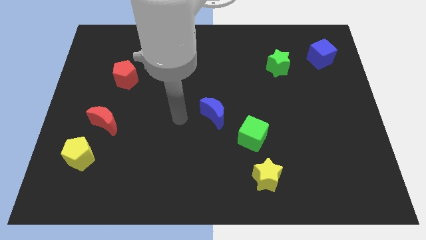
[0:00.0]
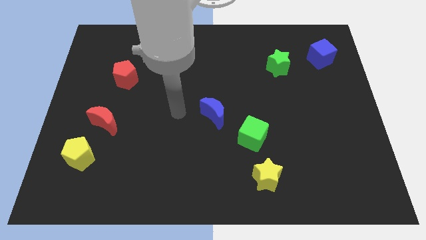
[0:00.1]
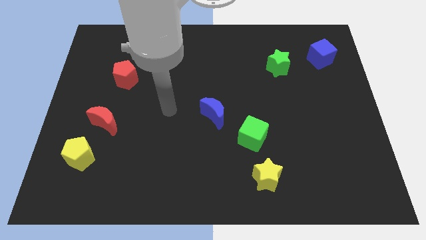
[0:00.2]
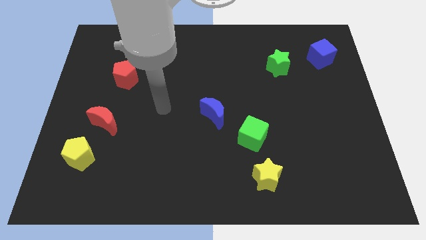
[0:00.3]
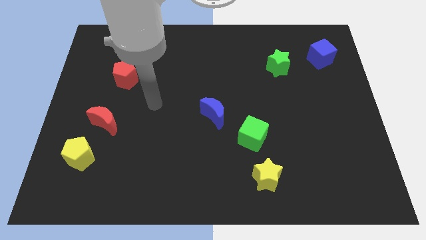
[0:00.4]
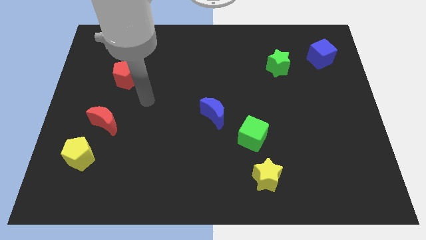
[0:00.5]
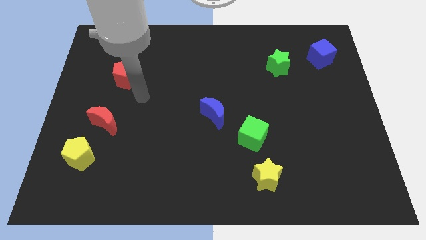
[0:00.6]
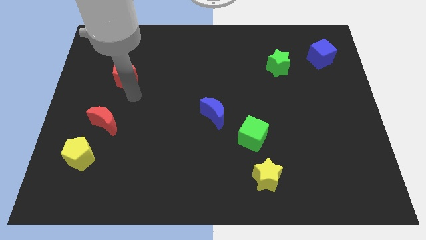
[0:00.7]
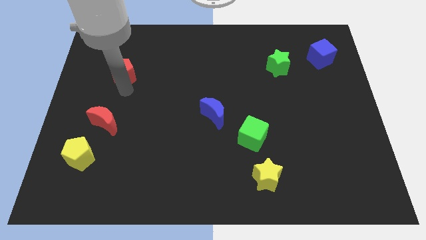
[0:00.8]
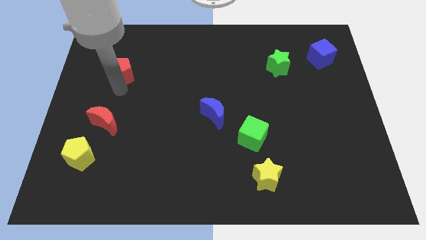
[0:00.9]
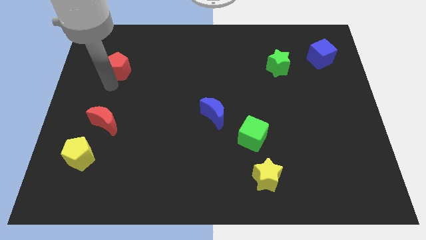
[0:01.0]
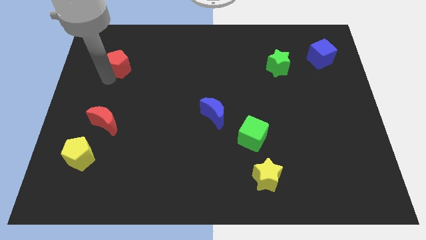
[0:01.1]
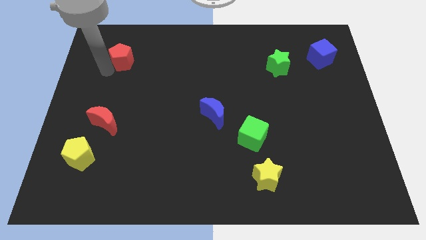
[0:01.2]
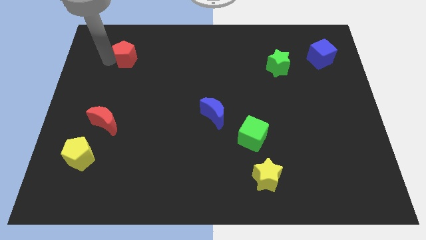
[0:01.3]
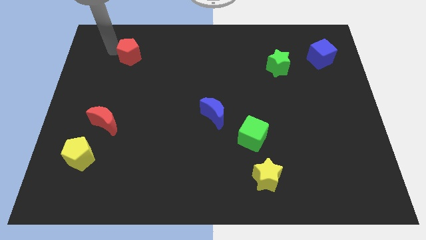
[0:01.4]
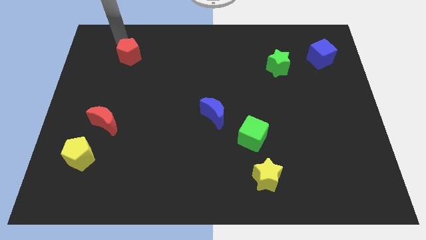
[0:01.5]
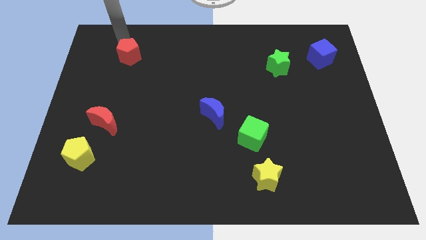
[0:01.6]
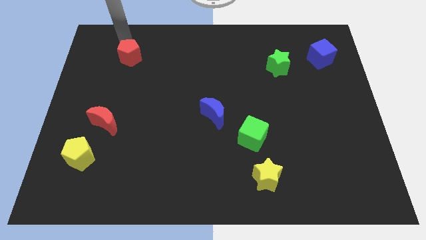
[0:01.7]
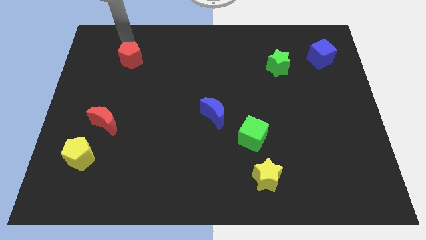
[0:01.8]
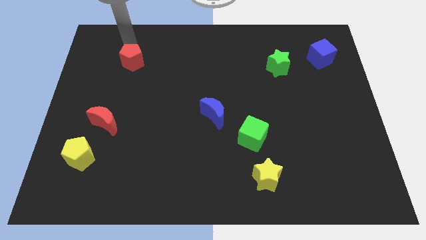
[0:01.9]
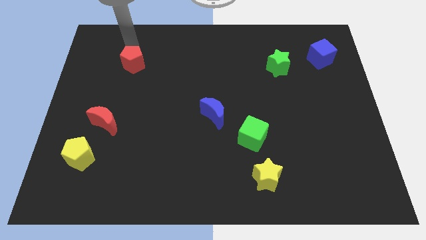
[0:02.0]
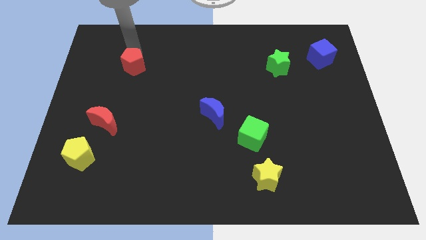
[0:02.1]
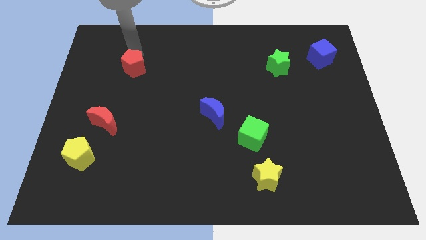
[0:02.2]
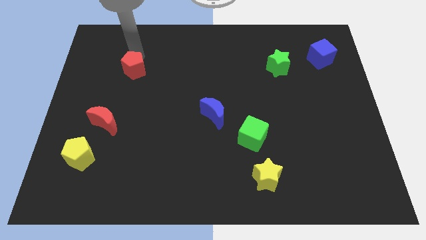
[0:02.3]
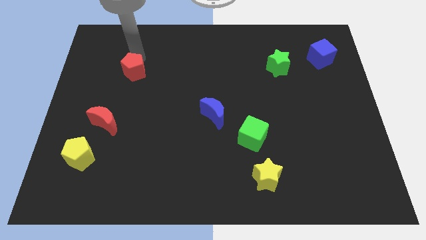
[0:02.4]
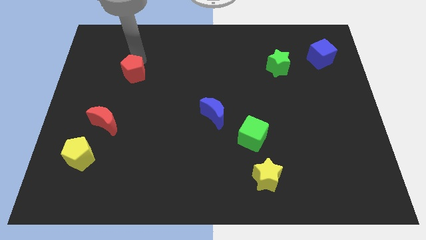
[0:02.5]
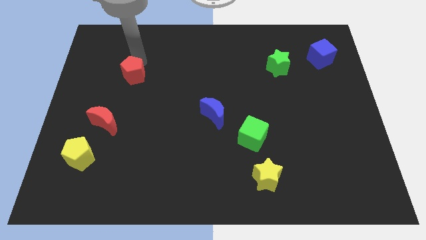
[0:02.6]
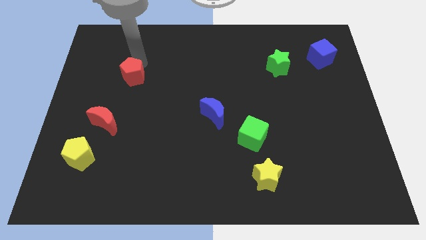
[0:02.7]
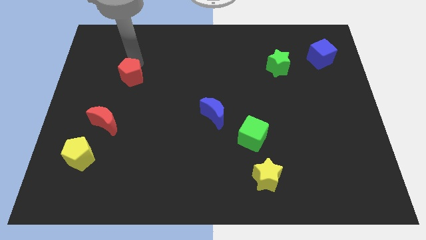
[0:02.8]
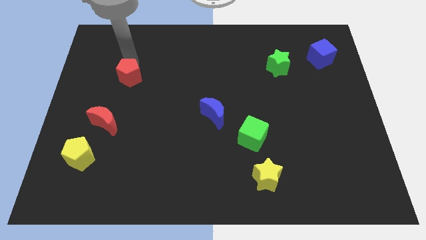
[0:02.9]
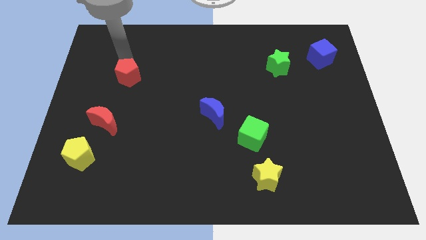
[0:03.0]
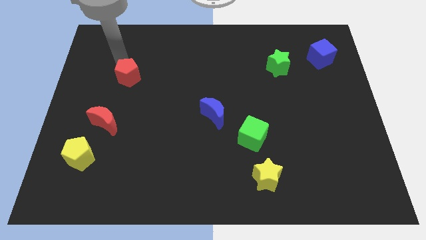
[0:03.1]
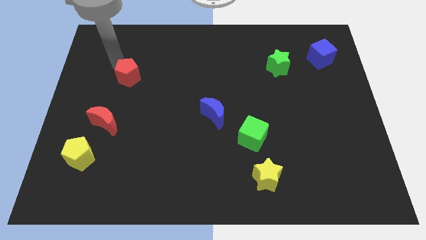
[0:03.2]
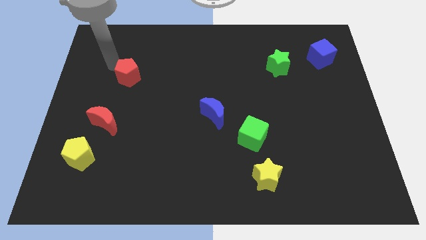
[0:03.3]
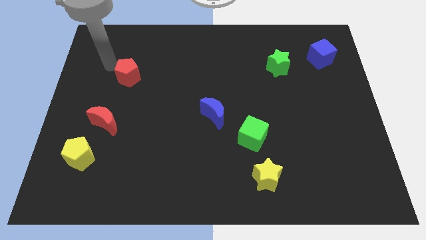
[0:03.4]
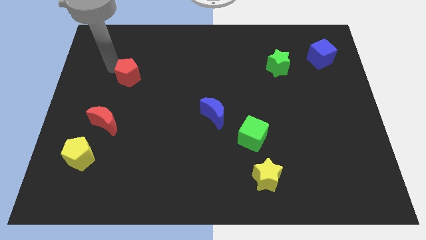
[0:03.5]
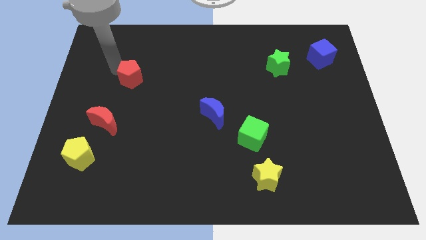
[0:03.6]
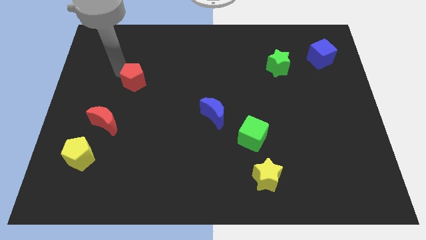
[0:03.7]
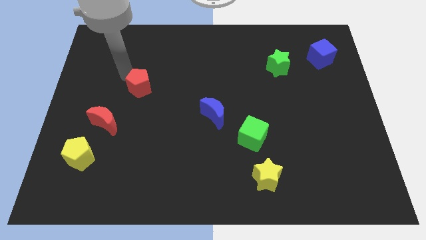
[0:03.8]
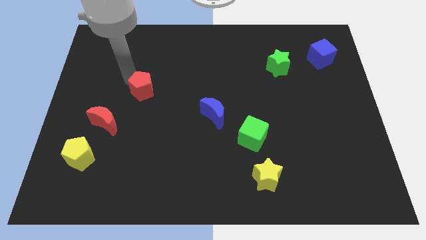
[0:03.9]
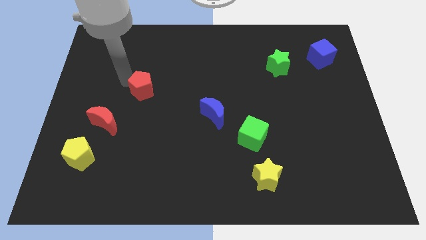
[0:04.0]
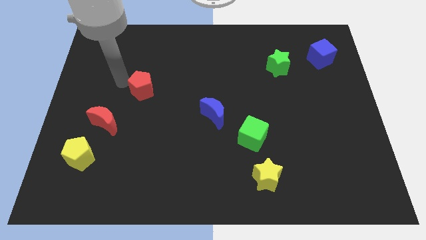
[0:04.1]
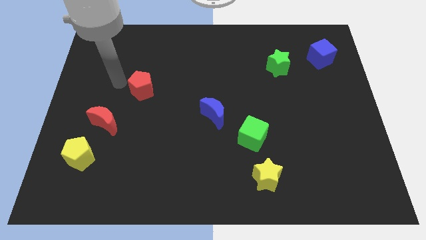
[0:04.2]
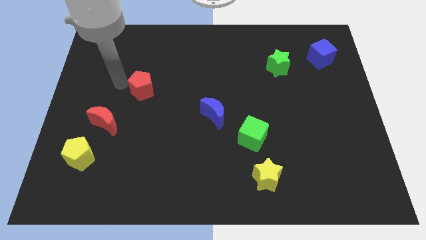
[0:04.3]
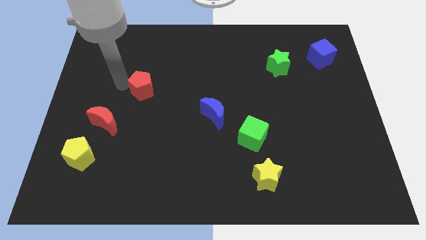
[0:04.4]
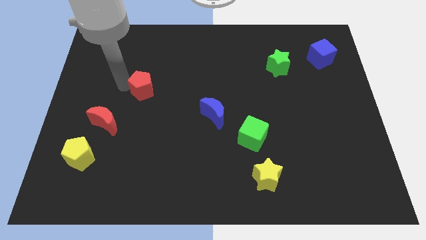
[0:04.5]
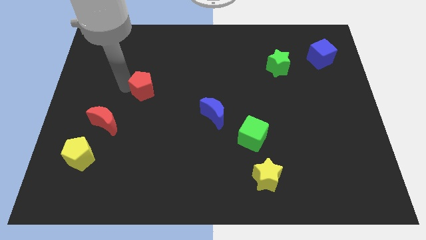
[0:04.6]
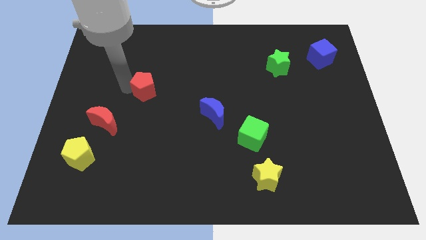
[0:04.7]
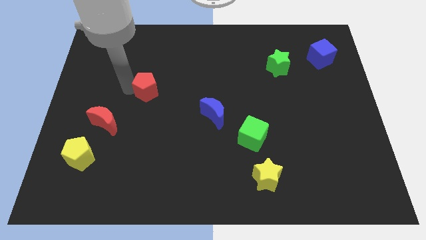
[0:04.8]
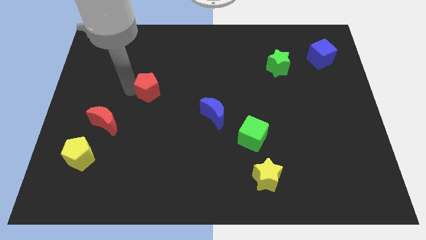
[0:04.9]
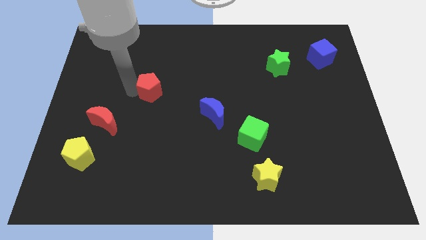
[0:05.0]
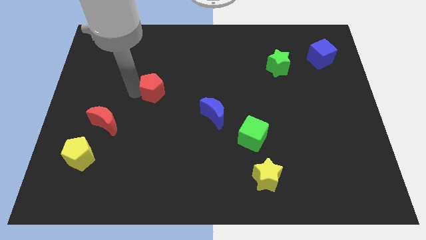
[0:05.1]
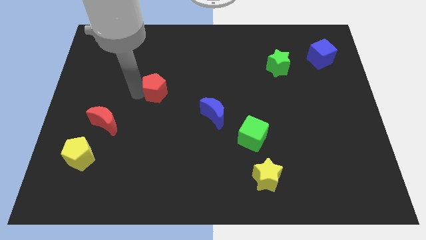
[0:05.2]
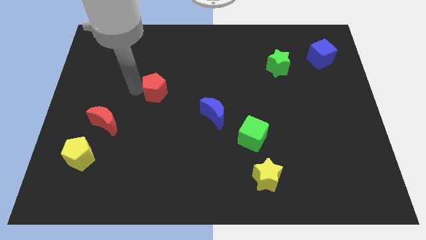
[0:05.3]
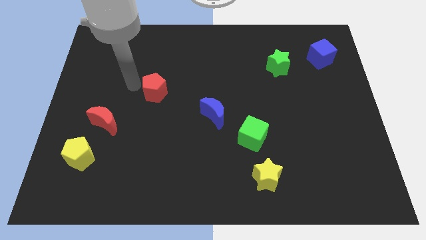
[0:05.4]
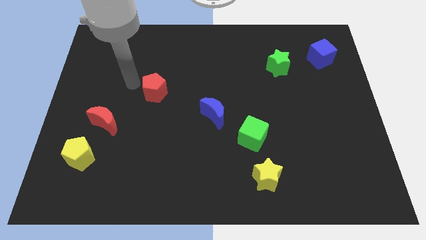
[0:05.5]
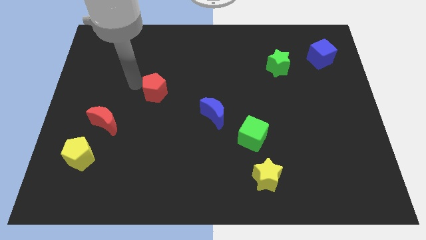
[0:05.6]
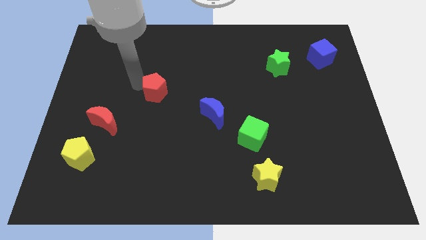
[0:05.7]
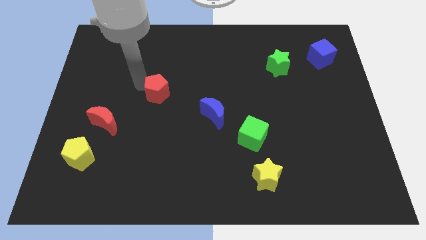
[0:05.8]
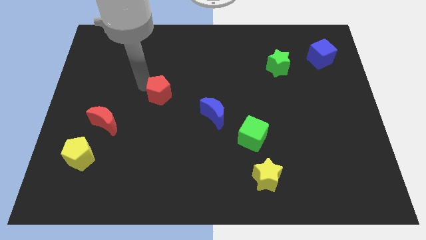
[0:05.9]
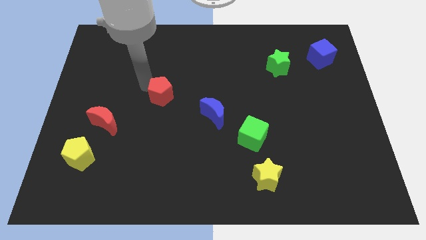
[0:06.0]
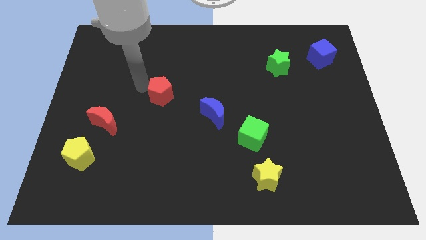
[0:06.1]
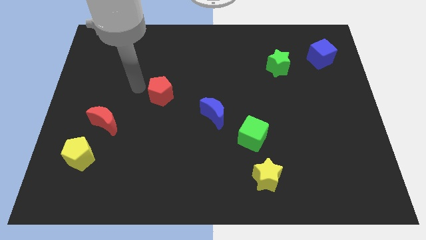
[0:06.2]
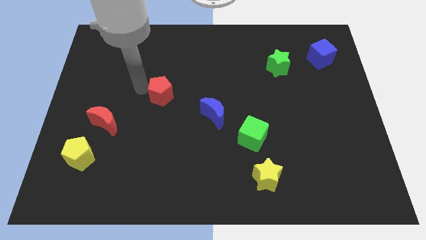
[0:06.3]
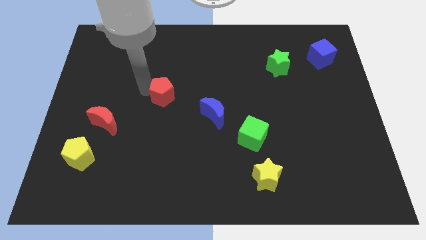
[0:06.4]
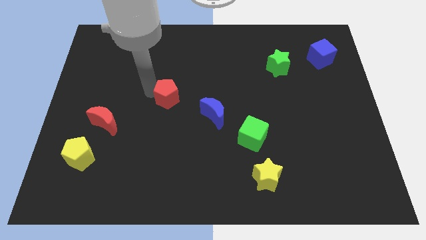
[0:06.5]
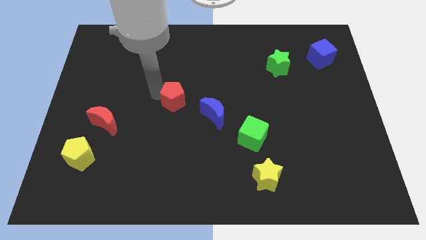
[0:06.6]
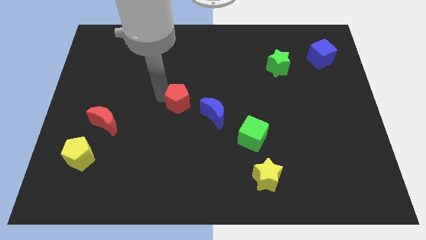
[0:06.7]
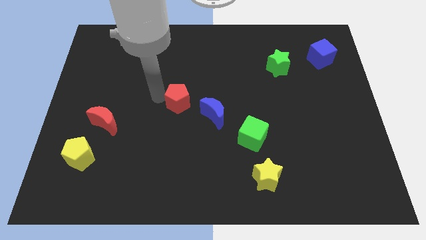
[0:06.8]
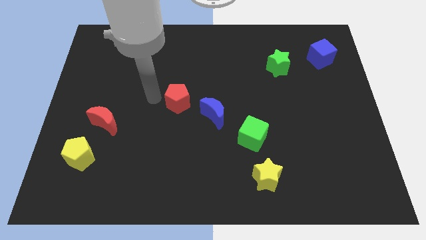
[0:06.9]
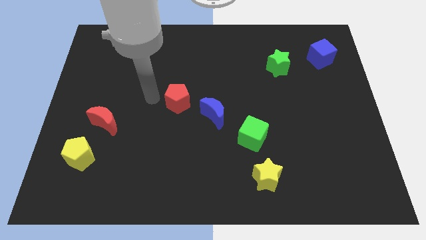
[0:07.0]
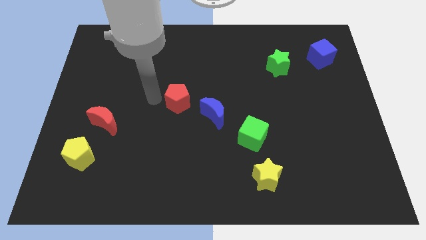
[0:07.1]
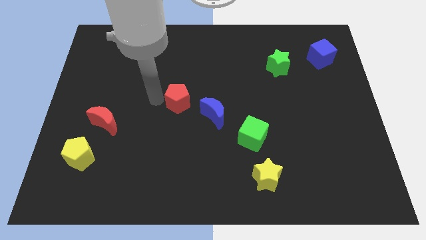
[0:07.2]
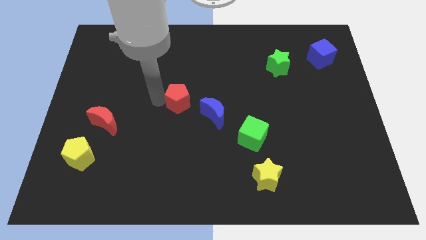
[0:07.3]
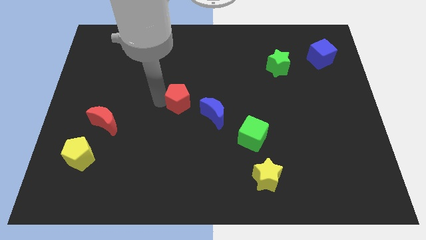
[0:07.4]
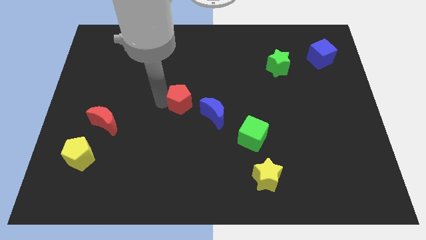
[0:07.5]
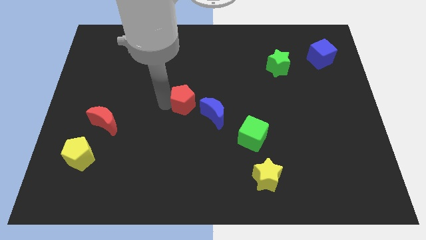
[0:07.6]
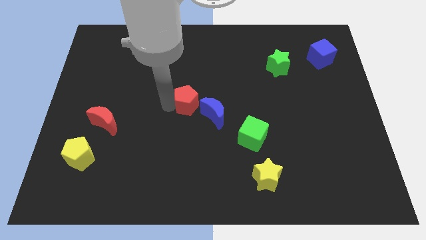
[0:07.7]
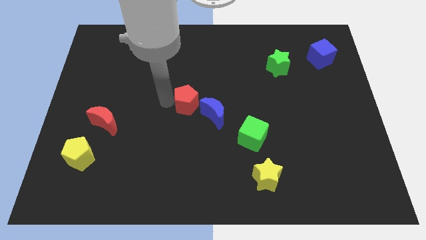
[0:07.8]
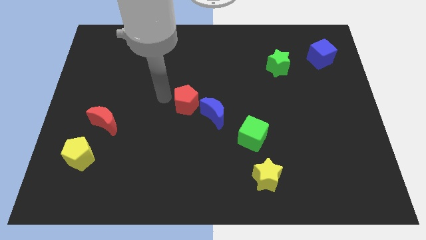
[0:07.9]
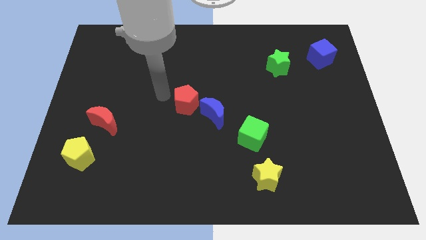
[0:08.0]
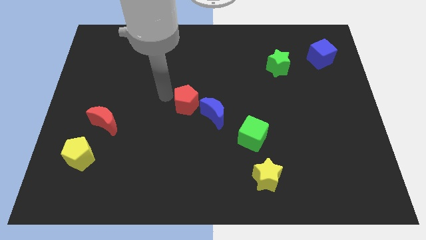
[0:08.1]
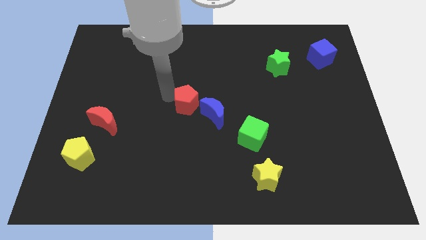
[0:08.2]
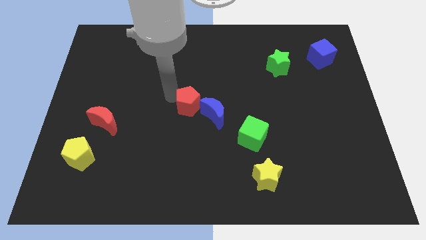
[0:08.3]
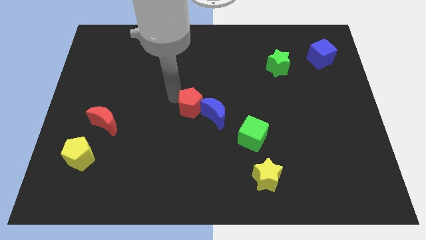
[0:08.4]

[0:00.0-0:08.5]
push the red pentagon close to the blue moon

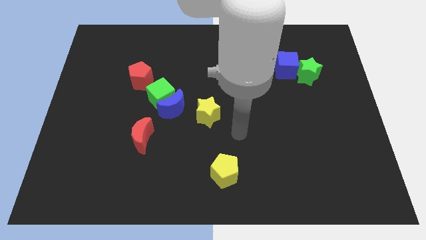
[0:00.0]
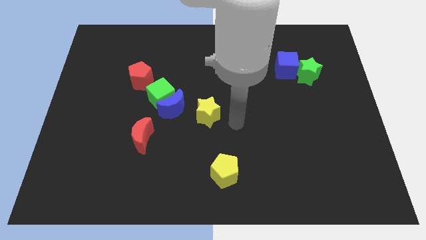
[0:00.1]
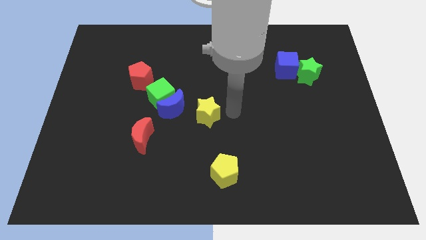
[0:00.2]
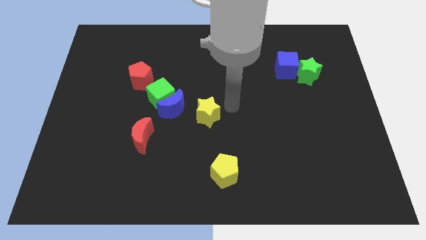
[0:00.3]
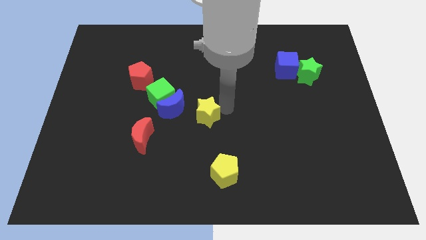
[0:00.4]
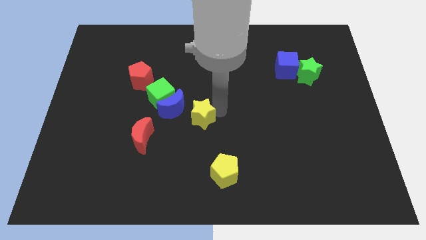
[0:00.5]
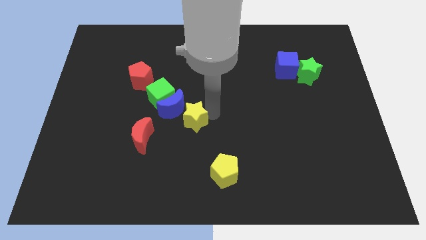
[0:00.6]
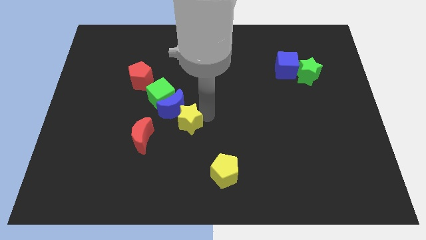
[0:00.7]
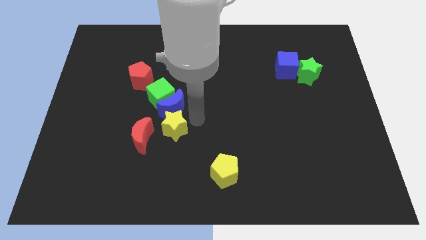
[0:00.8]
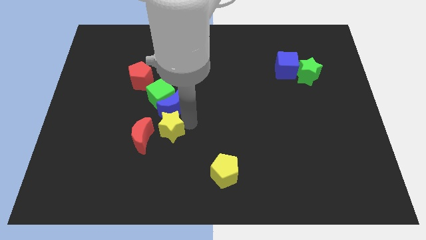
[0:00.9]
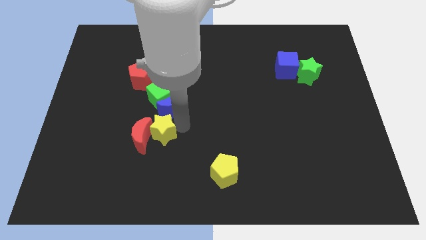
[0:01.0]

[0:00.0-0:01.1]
slide the yellow star towards the red moon
